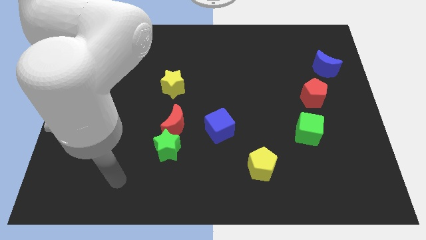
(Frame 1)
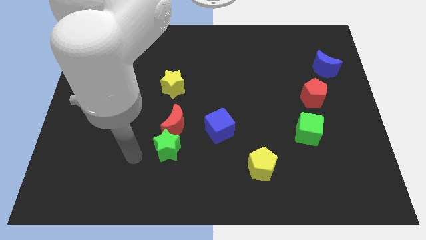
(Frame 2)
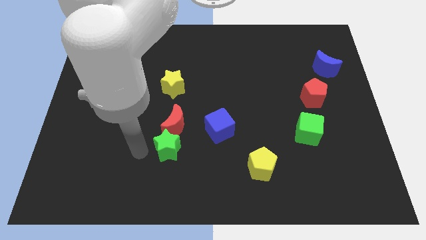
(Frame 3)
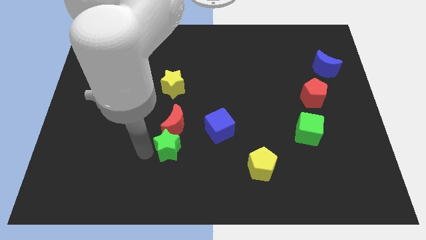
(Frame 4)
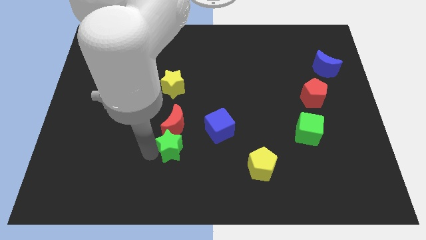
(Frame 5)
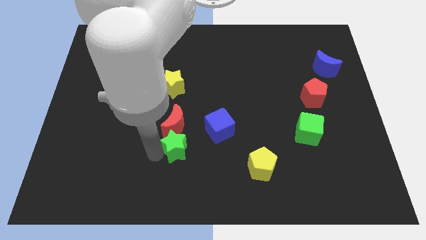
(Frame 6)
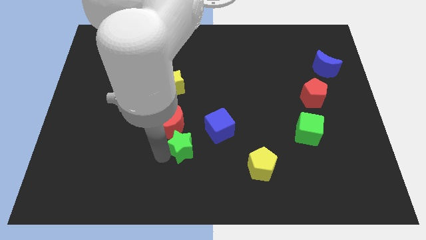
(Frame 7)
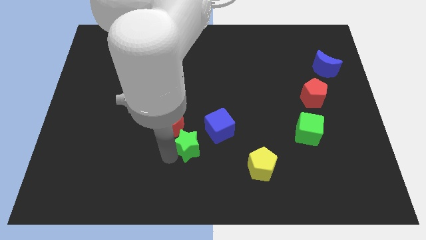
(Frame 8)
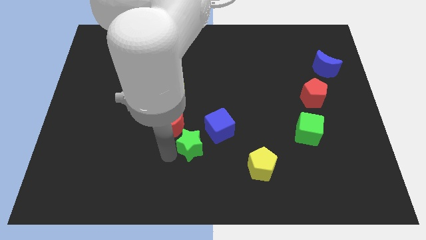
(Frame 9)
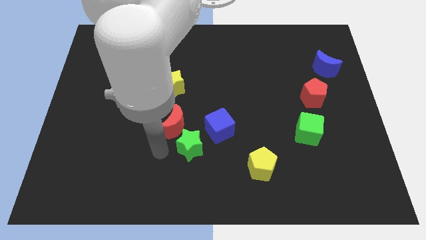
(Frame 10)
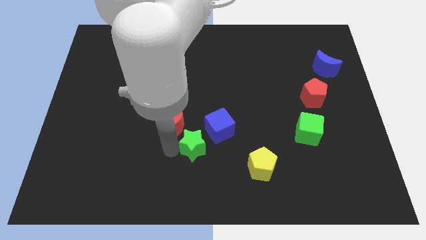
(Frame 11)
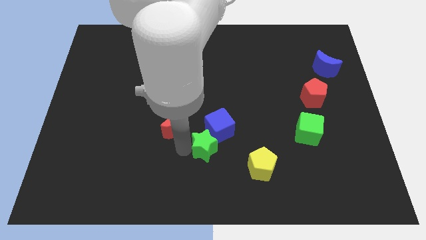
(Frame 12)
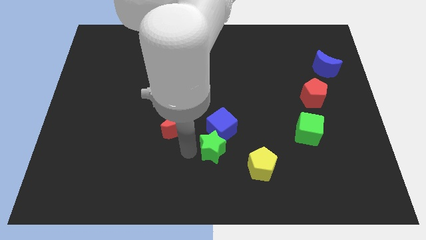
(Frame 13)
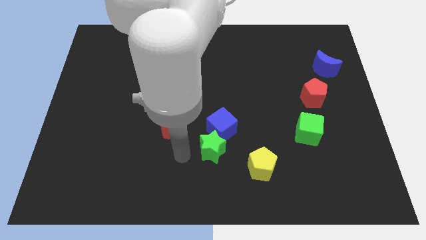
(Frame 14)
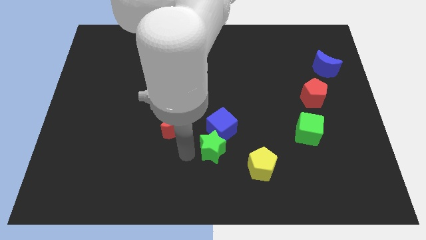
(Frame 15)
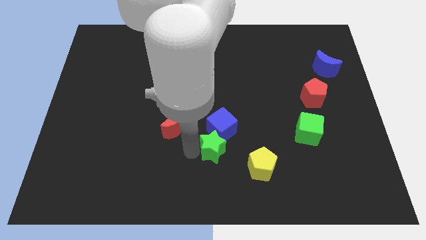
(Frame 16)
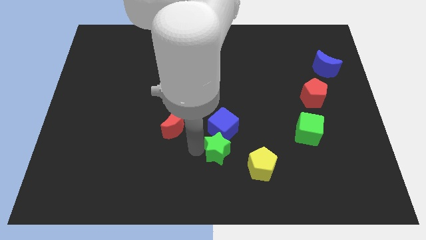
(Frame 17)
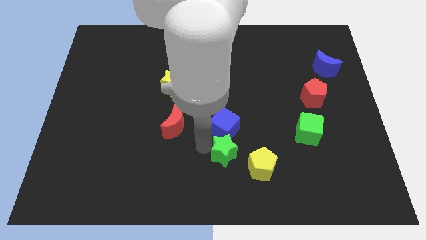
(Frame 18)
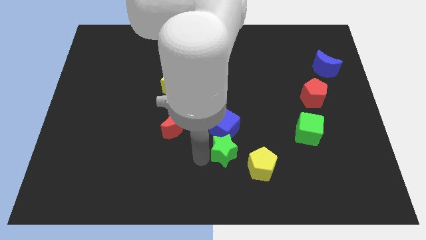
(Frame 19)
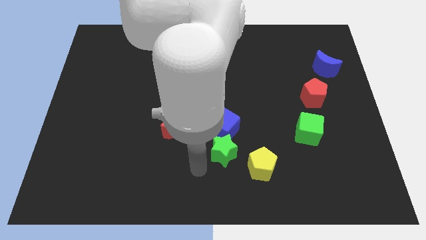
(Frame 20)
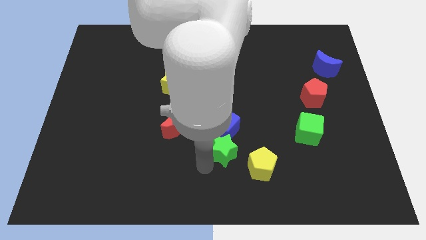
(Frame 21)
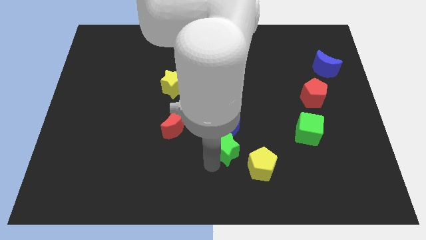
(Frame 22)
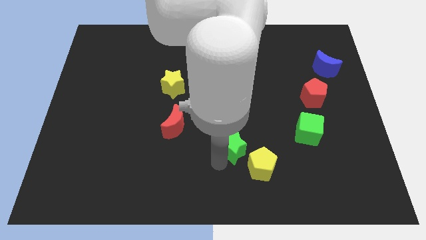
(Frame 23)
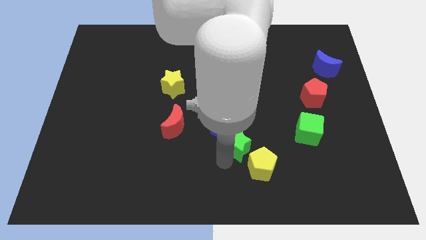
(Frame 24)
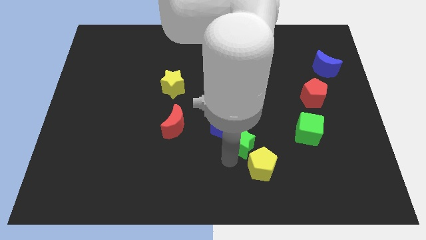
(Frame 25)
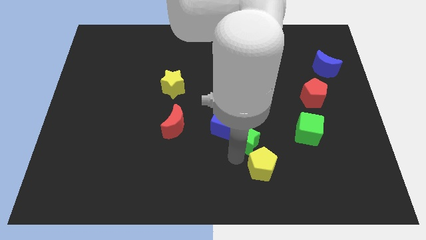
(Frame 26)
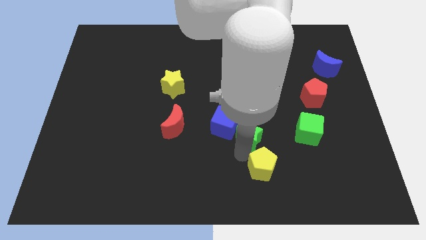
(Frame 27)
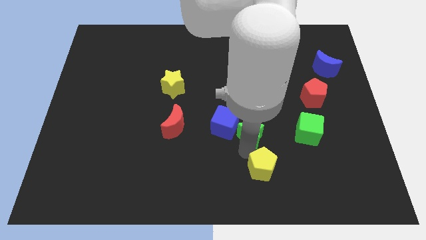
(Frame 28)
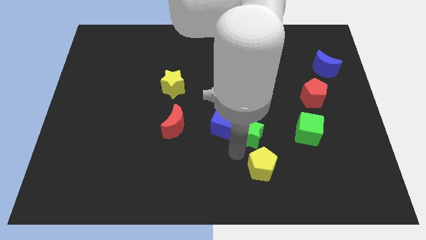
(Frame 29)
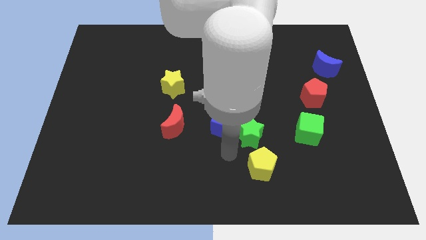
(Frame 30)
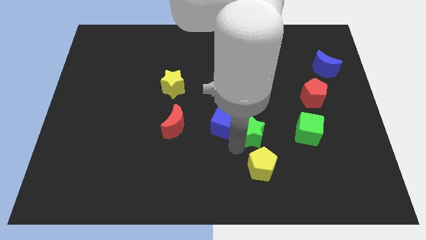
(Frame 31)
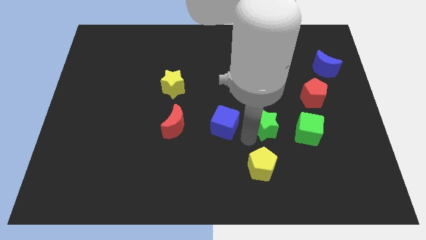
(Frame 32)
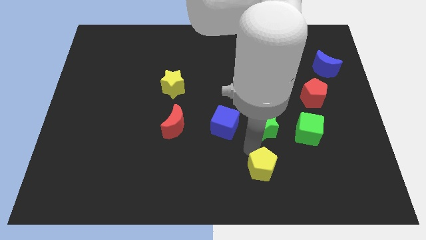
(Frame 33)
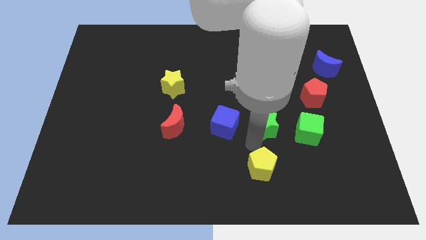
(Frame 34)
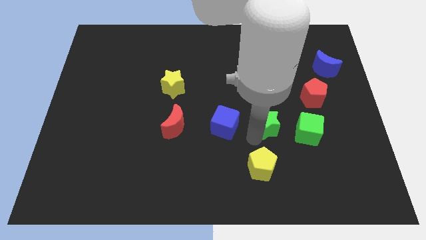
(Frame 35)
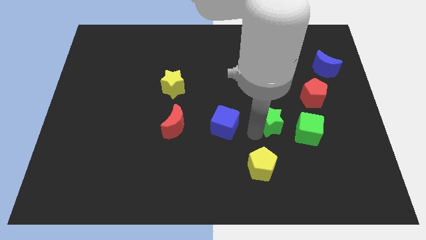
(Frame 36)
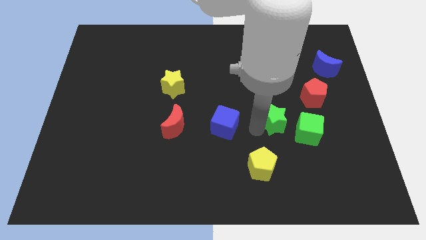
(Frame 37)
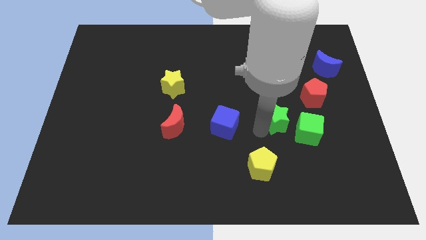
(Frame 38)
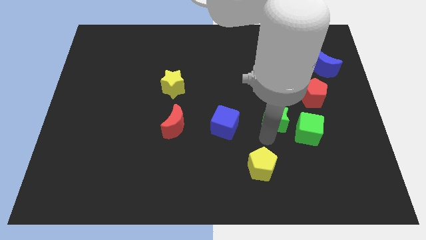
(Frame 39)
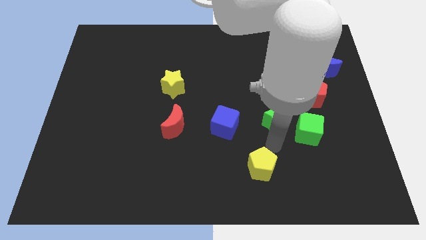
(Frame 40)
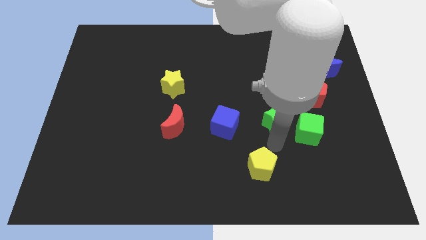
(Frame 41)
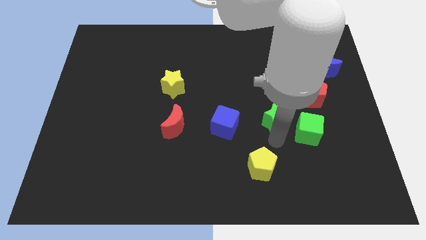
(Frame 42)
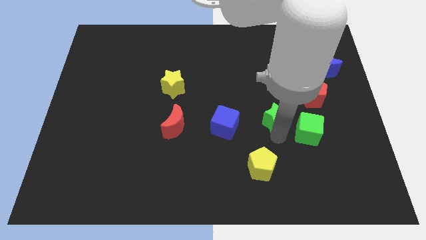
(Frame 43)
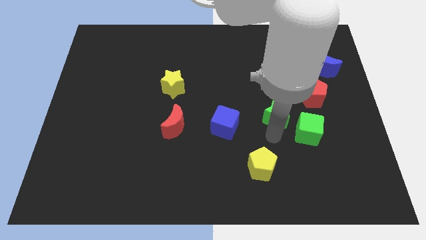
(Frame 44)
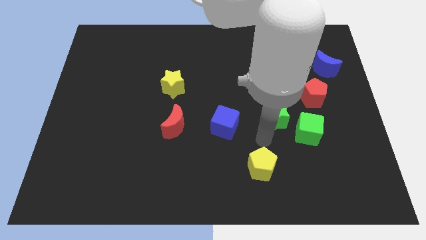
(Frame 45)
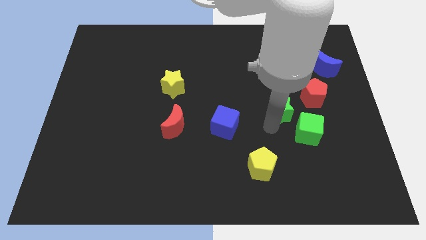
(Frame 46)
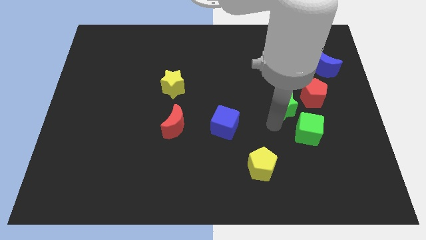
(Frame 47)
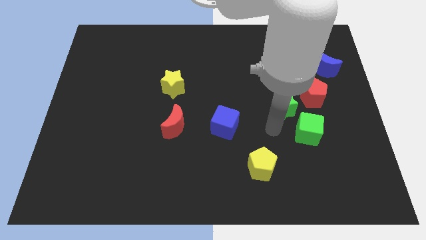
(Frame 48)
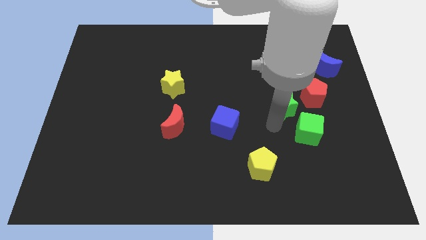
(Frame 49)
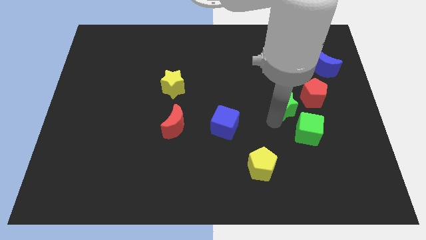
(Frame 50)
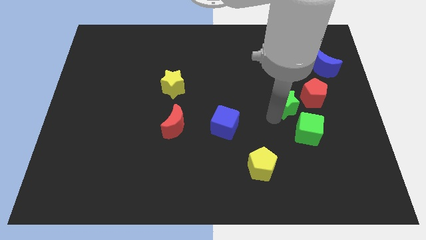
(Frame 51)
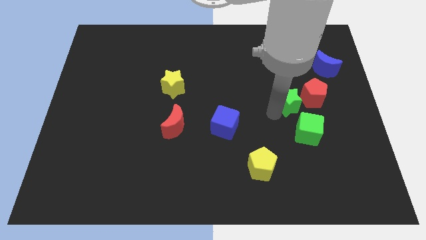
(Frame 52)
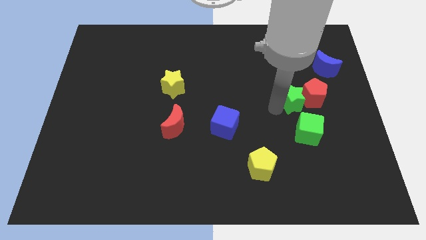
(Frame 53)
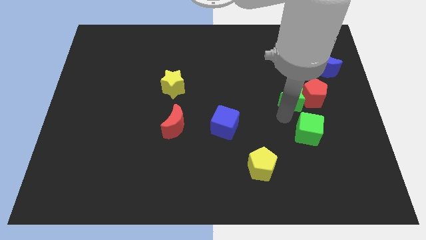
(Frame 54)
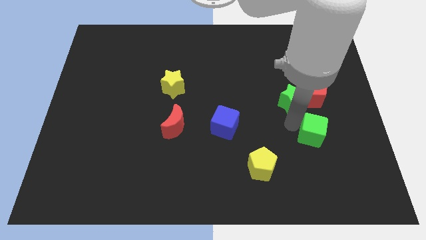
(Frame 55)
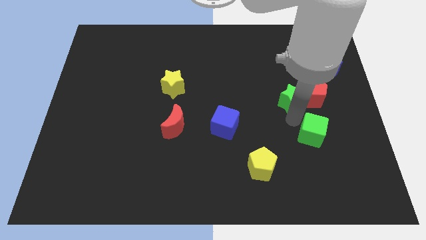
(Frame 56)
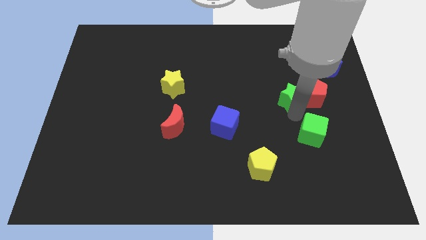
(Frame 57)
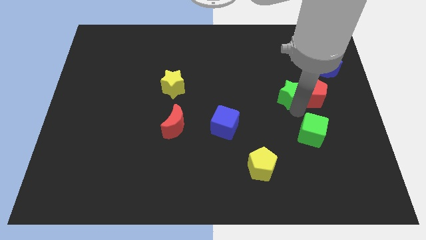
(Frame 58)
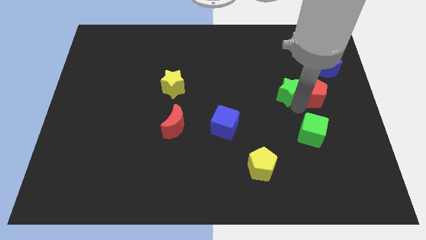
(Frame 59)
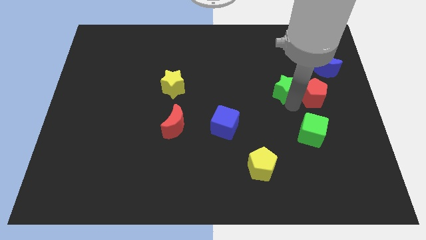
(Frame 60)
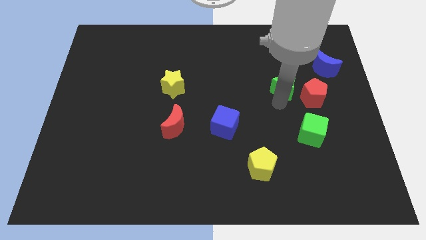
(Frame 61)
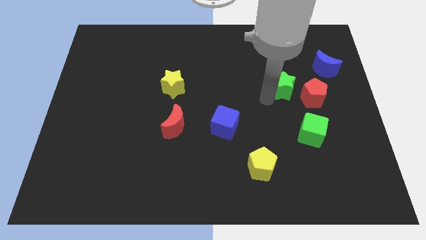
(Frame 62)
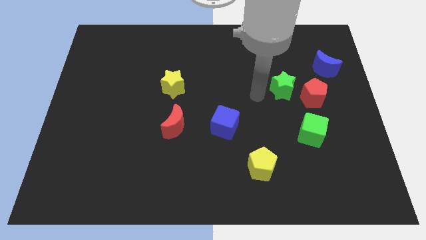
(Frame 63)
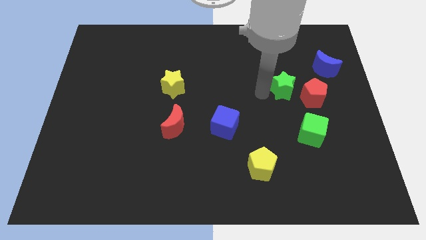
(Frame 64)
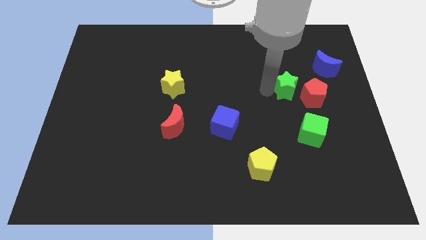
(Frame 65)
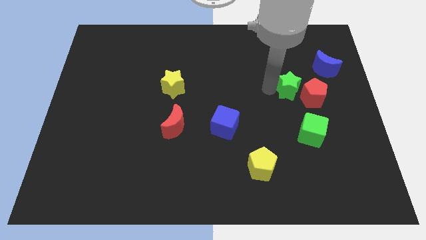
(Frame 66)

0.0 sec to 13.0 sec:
move the green star to the bottom left side of the blue moon

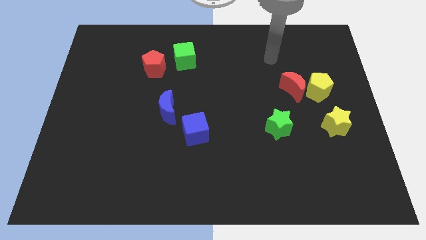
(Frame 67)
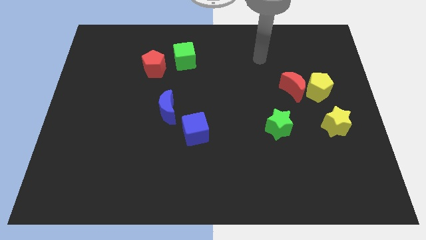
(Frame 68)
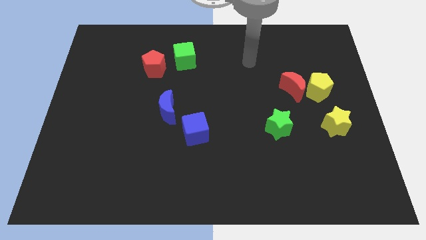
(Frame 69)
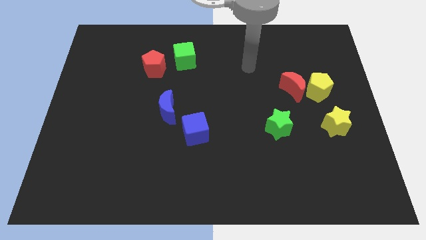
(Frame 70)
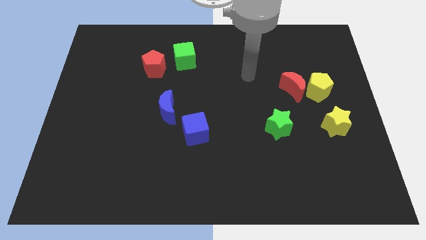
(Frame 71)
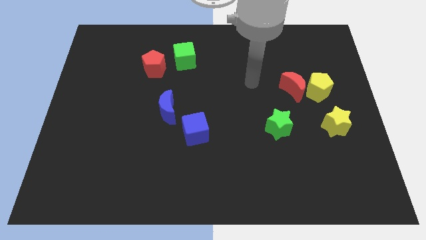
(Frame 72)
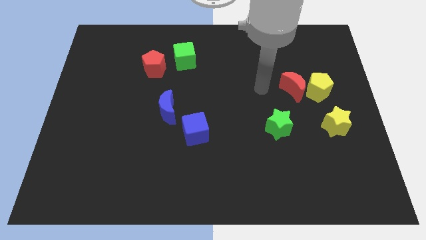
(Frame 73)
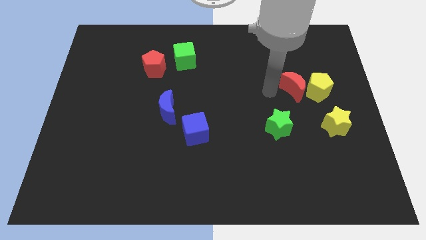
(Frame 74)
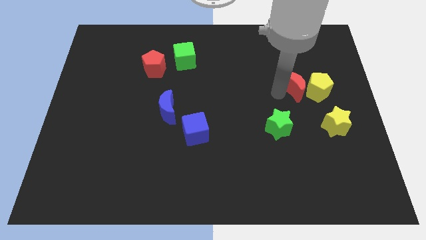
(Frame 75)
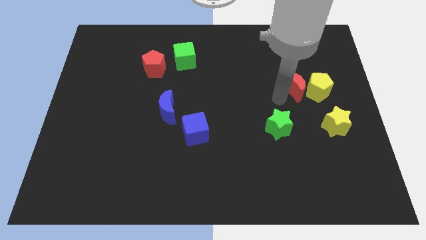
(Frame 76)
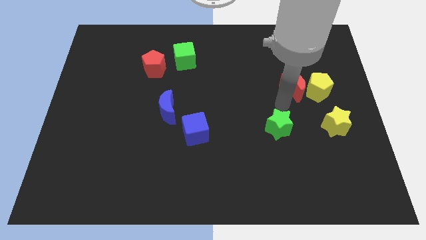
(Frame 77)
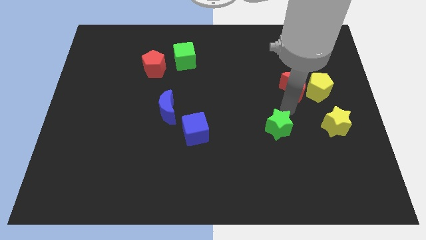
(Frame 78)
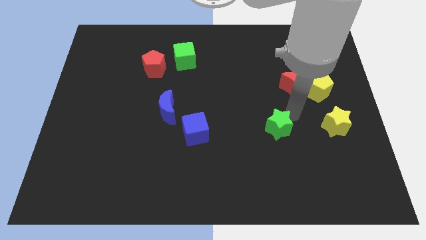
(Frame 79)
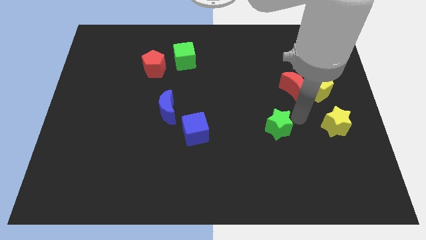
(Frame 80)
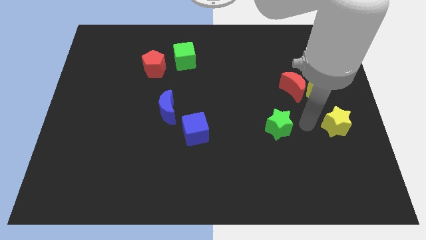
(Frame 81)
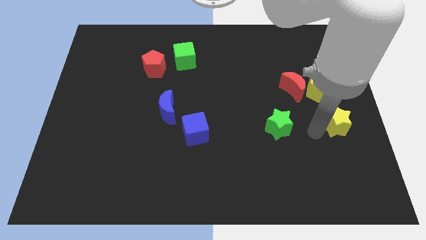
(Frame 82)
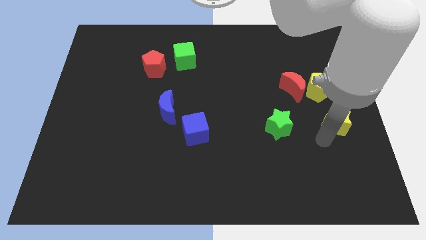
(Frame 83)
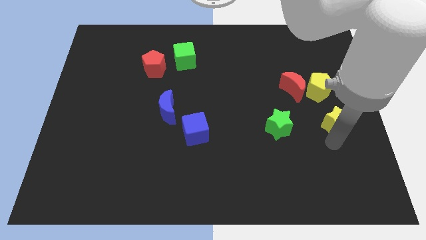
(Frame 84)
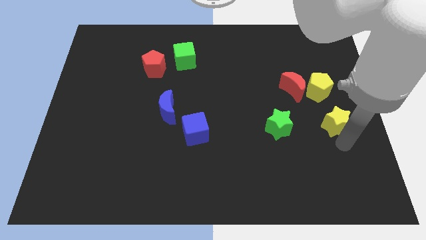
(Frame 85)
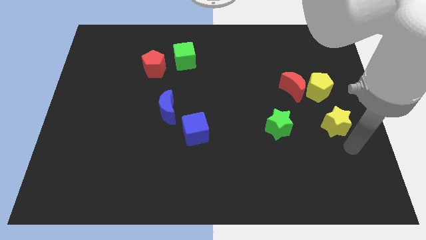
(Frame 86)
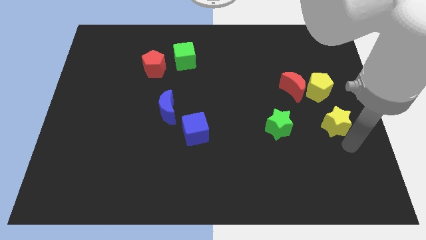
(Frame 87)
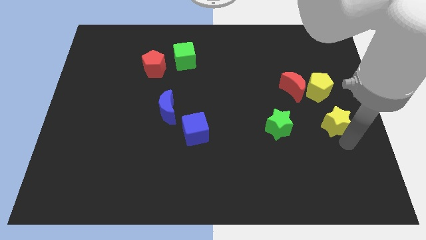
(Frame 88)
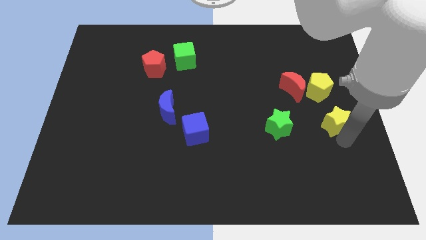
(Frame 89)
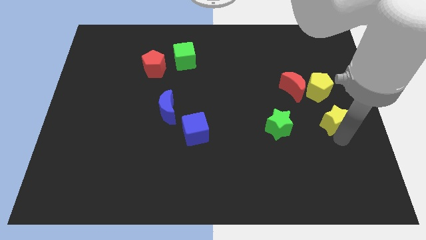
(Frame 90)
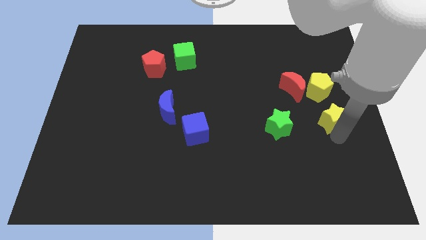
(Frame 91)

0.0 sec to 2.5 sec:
move the yellow star to the bottom right of the red moon
